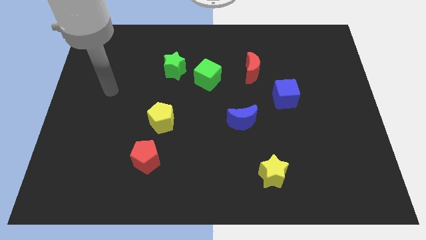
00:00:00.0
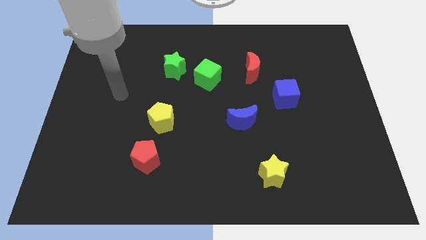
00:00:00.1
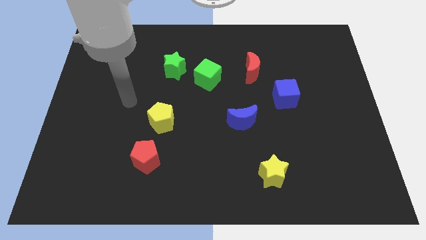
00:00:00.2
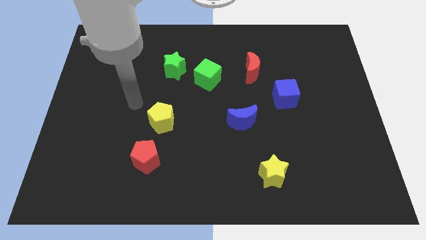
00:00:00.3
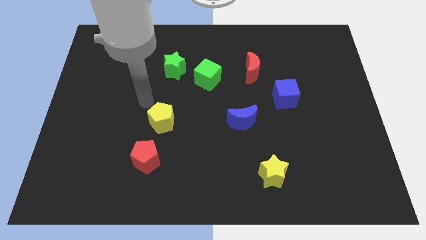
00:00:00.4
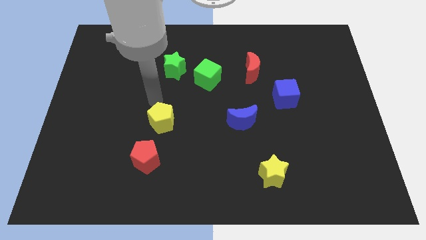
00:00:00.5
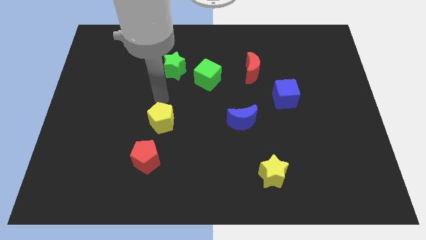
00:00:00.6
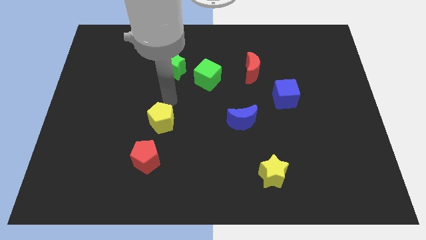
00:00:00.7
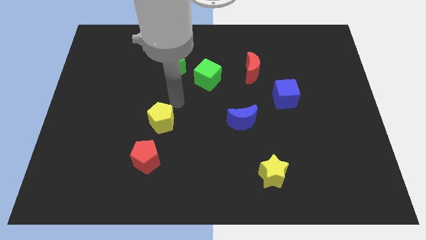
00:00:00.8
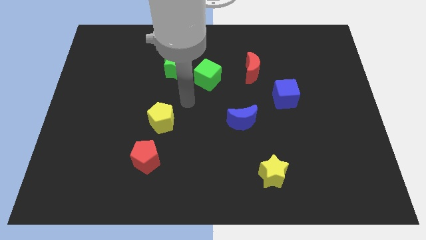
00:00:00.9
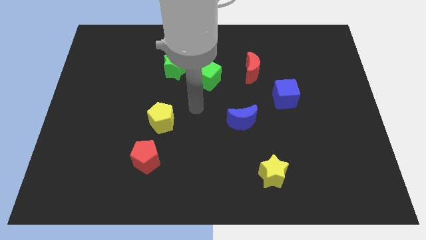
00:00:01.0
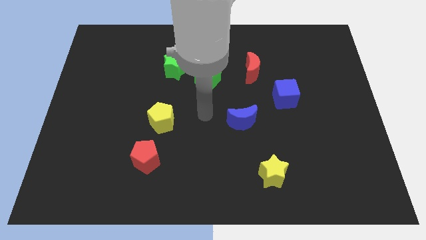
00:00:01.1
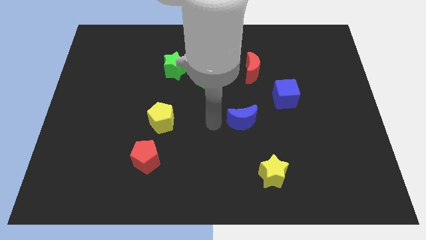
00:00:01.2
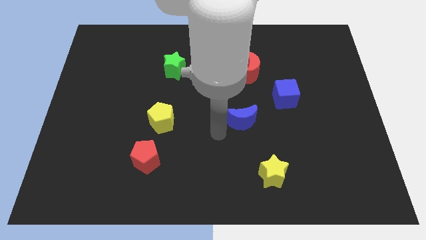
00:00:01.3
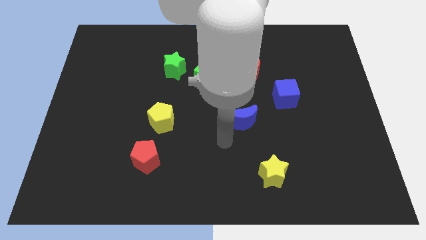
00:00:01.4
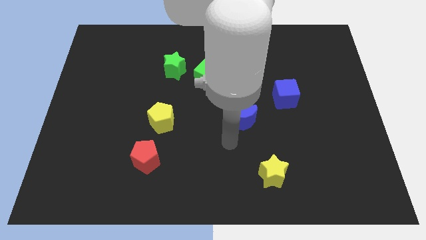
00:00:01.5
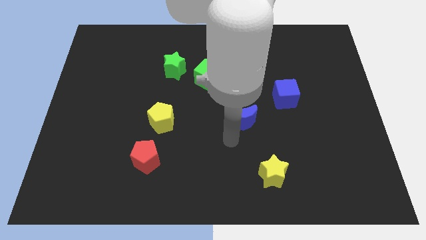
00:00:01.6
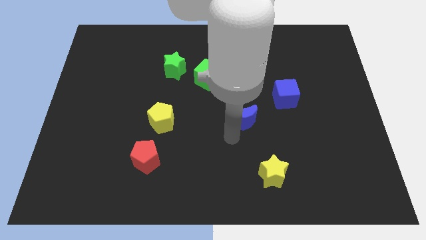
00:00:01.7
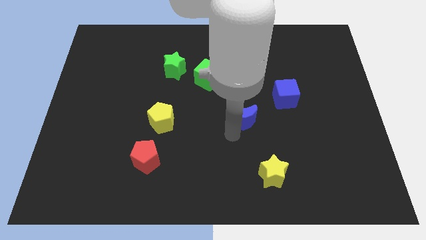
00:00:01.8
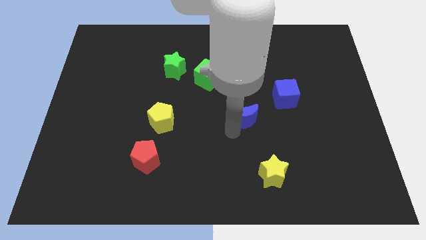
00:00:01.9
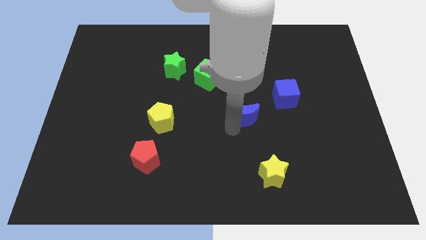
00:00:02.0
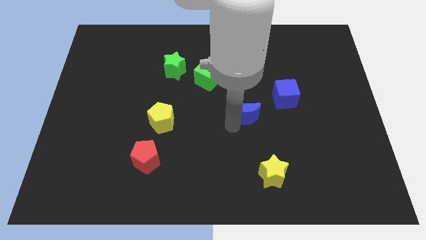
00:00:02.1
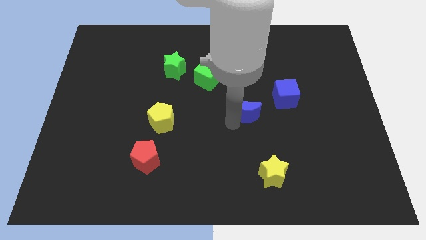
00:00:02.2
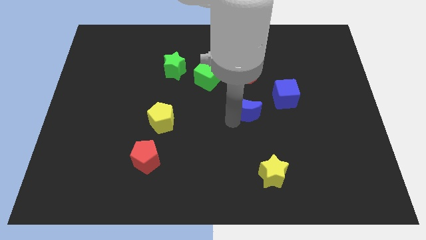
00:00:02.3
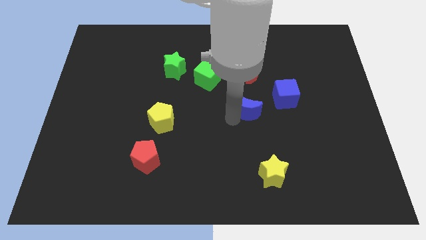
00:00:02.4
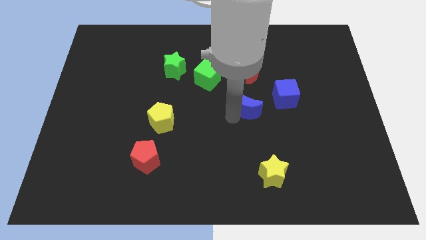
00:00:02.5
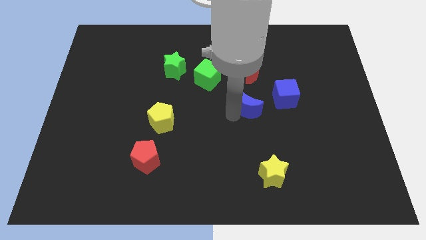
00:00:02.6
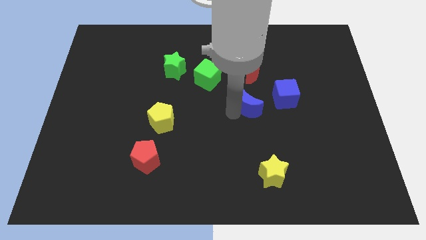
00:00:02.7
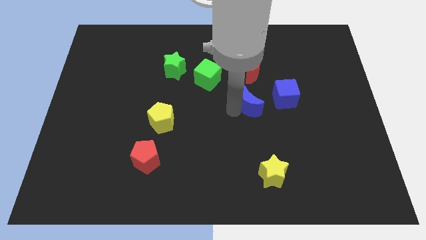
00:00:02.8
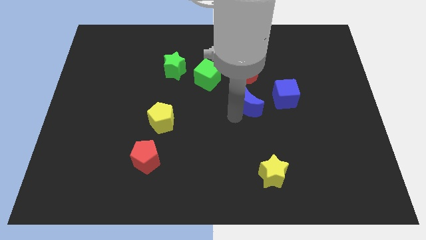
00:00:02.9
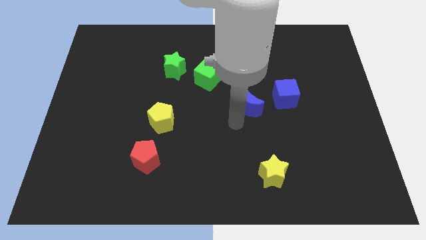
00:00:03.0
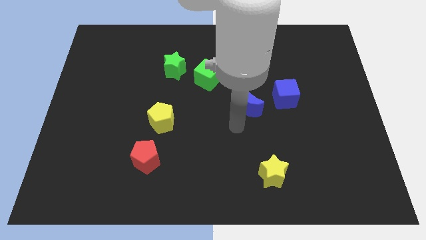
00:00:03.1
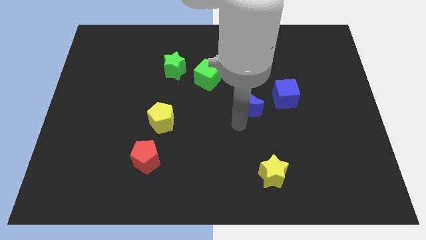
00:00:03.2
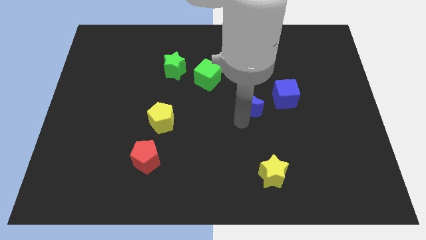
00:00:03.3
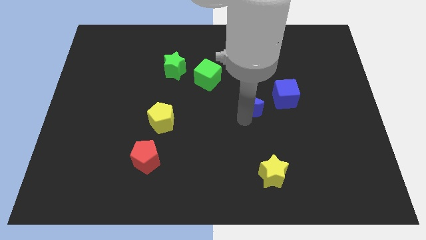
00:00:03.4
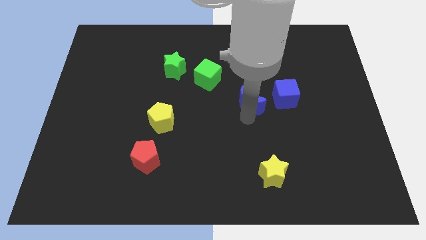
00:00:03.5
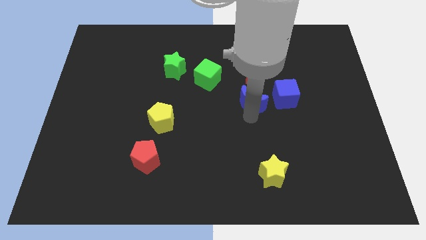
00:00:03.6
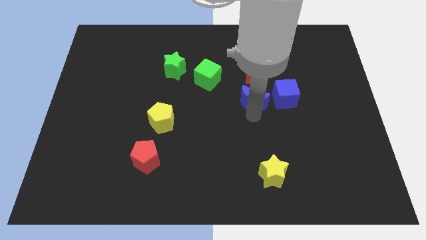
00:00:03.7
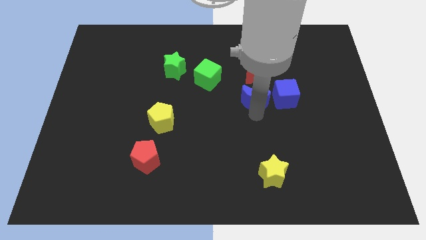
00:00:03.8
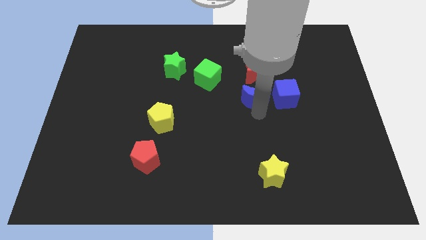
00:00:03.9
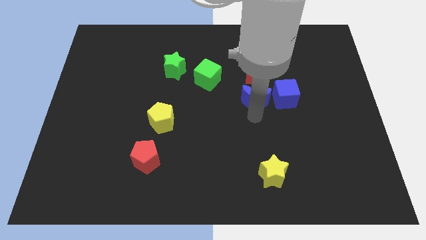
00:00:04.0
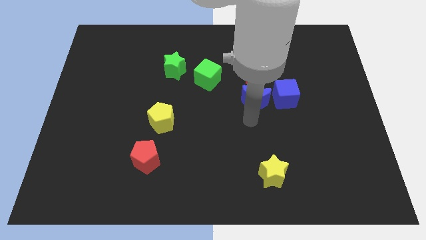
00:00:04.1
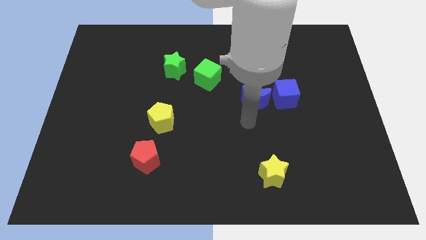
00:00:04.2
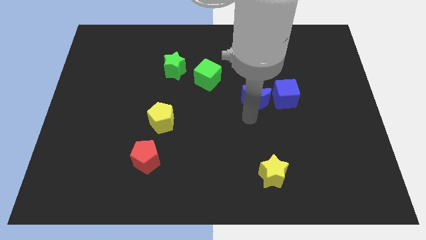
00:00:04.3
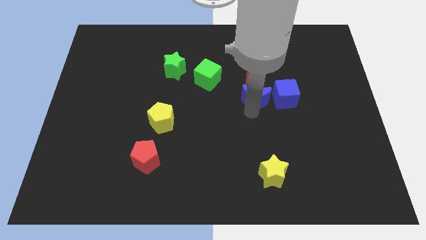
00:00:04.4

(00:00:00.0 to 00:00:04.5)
slightly slide the blue moon upwards and right

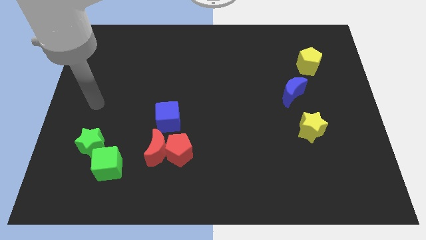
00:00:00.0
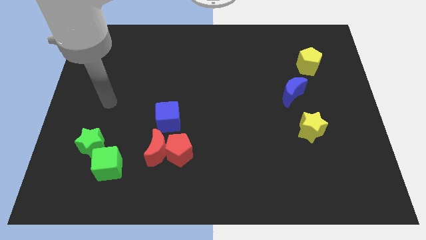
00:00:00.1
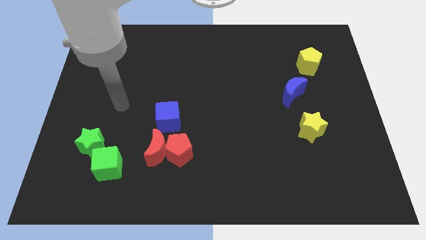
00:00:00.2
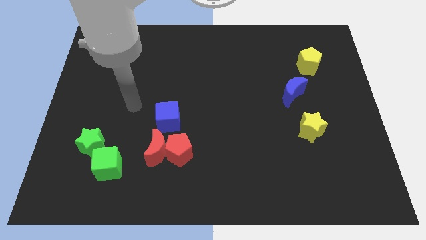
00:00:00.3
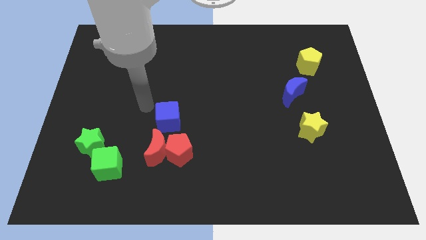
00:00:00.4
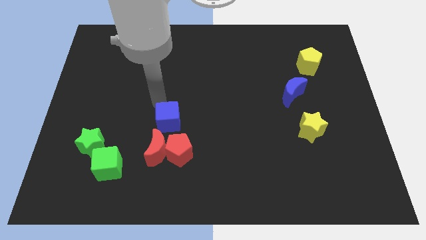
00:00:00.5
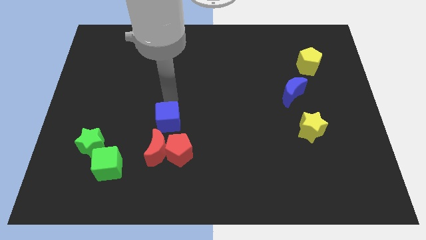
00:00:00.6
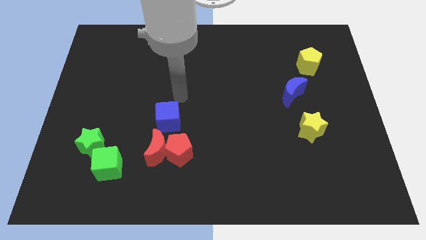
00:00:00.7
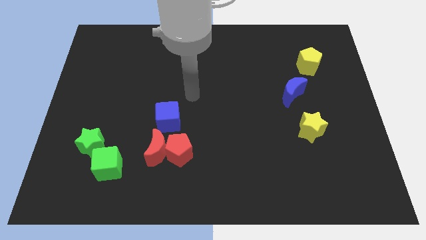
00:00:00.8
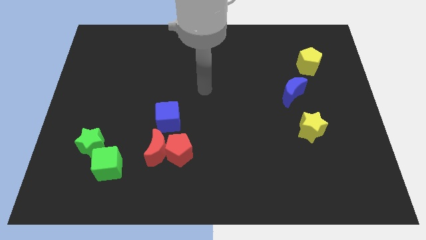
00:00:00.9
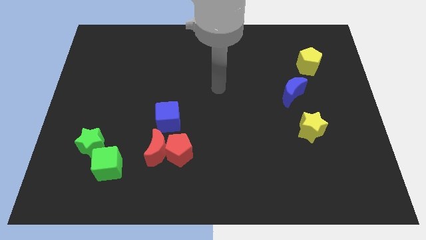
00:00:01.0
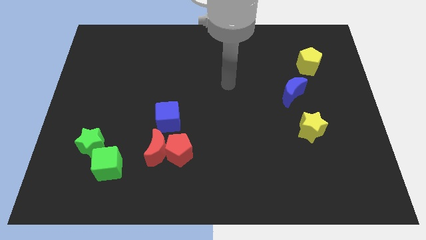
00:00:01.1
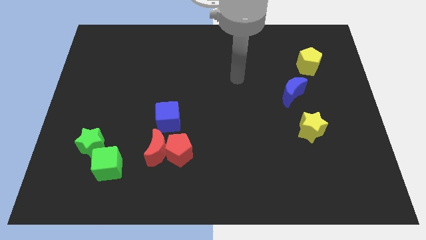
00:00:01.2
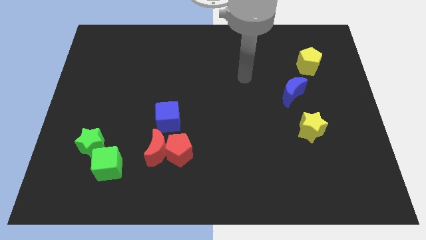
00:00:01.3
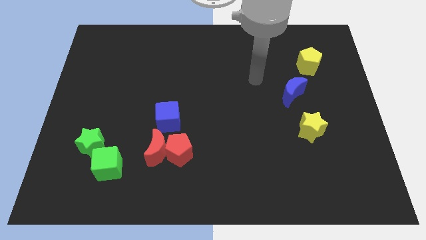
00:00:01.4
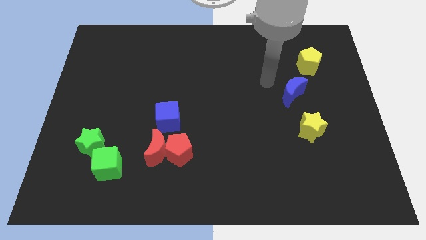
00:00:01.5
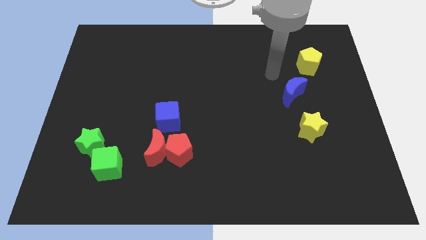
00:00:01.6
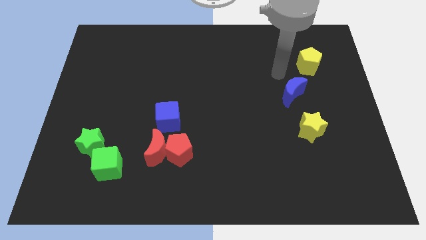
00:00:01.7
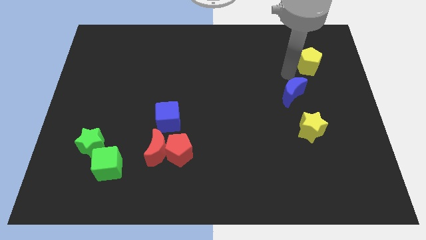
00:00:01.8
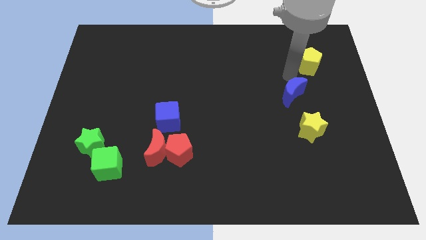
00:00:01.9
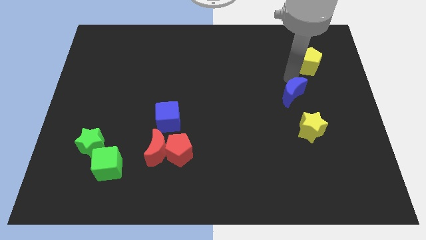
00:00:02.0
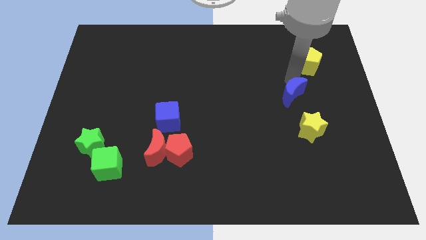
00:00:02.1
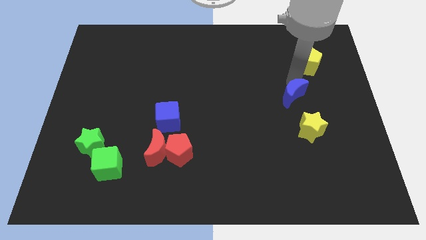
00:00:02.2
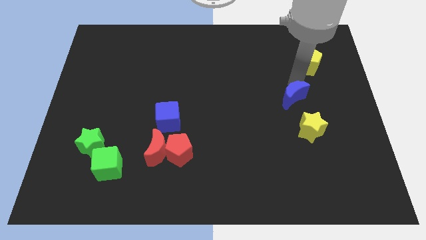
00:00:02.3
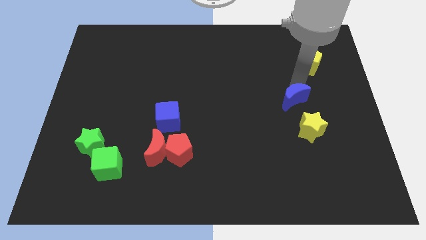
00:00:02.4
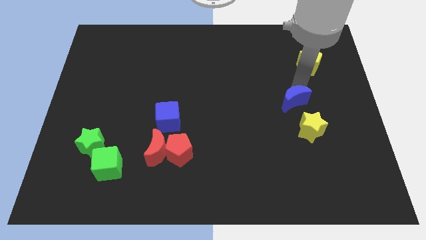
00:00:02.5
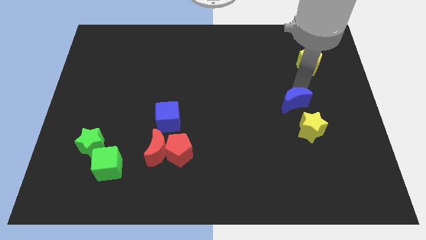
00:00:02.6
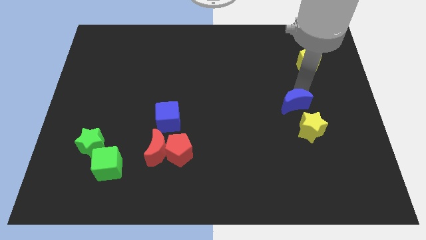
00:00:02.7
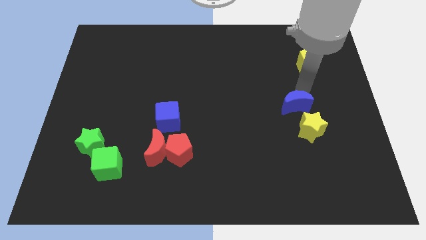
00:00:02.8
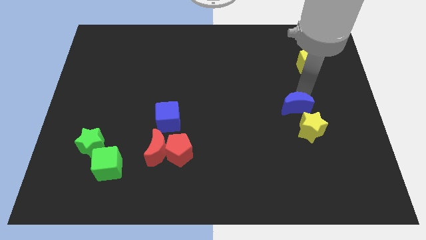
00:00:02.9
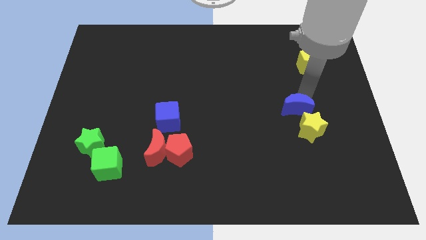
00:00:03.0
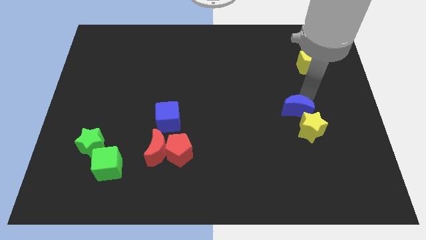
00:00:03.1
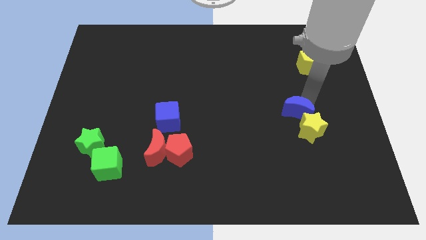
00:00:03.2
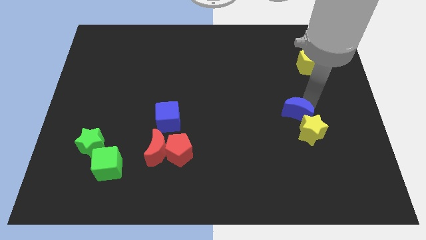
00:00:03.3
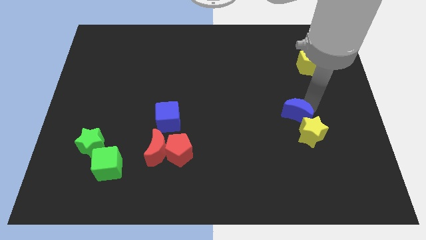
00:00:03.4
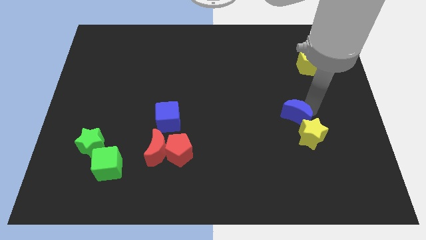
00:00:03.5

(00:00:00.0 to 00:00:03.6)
slightly slide the blue moon downwards
